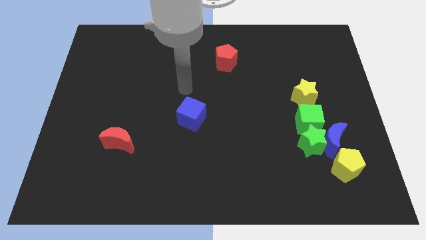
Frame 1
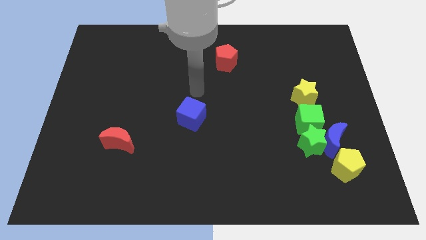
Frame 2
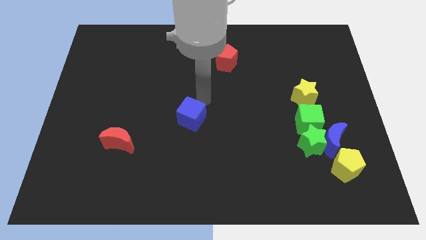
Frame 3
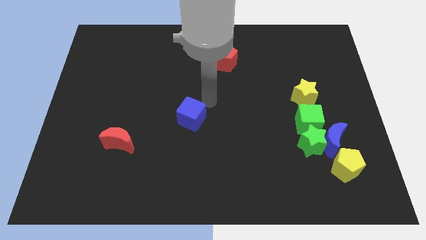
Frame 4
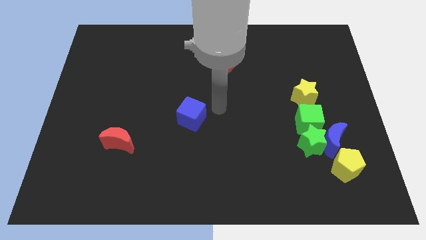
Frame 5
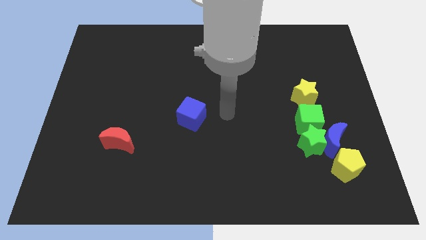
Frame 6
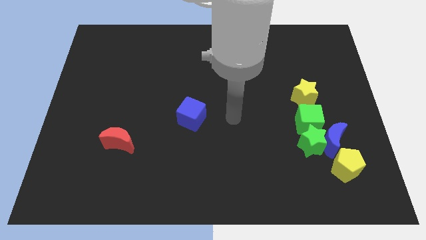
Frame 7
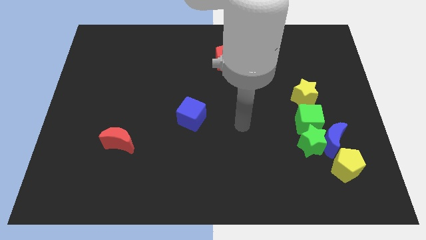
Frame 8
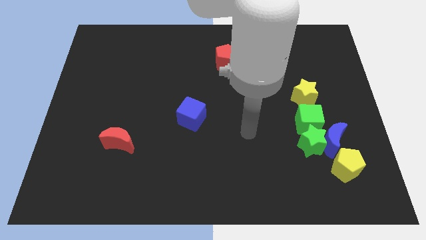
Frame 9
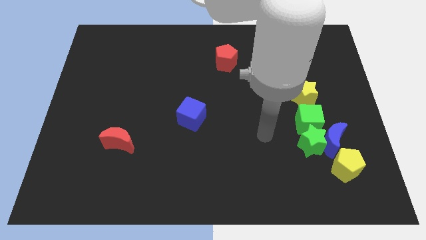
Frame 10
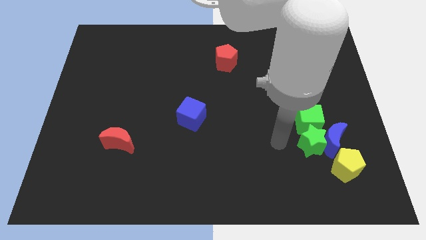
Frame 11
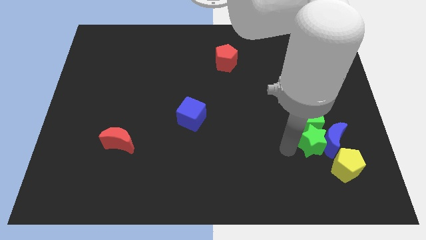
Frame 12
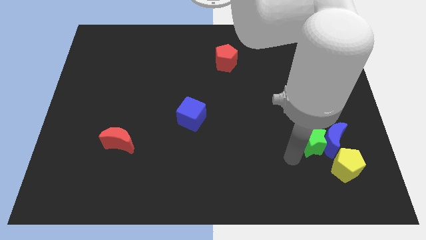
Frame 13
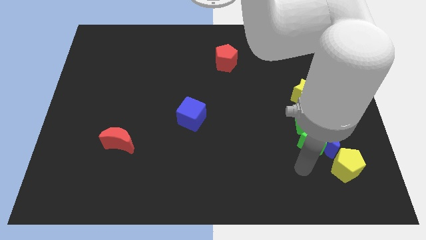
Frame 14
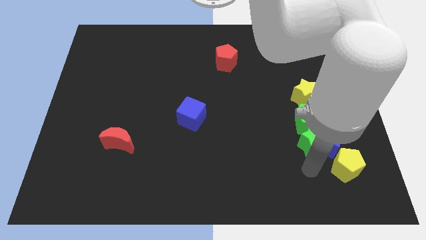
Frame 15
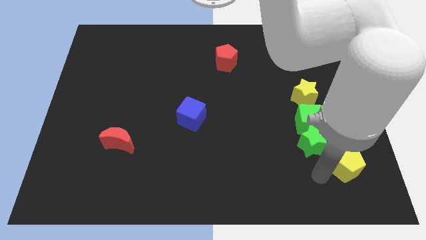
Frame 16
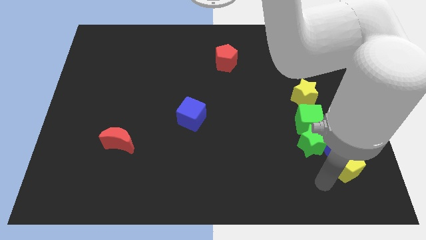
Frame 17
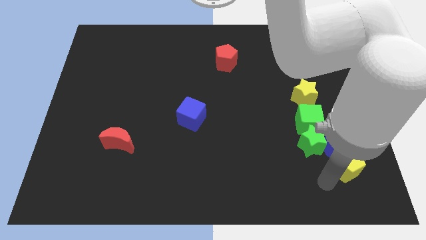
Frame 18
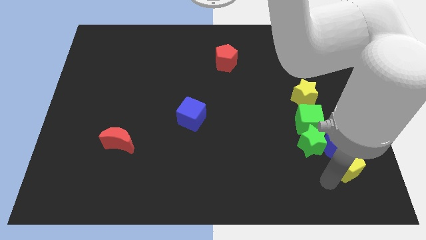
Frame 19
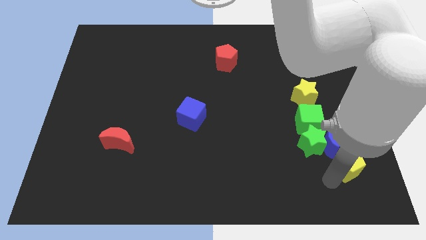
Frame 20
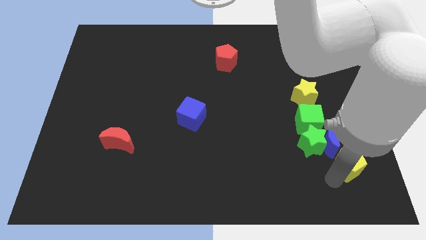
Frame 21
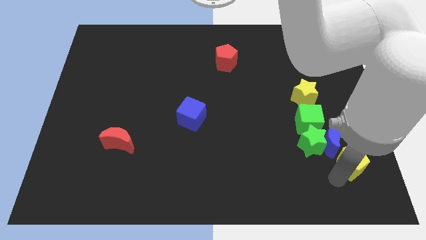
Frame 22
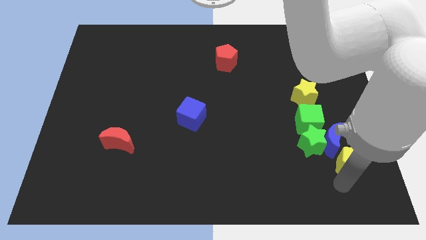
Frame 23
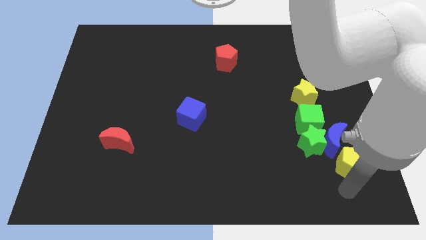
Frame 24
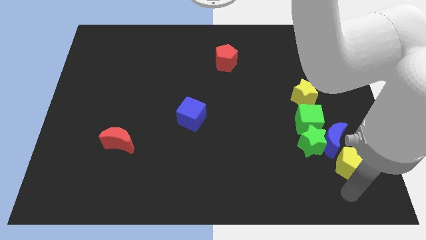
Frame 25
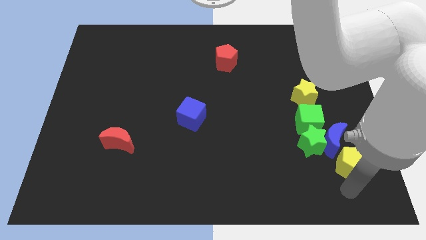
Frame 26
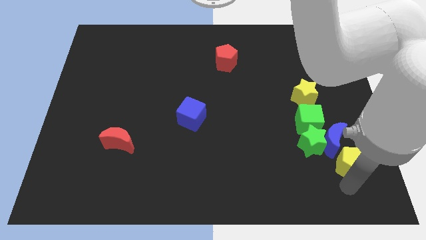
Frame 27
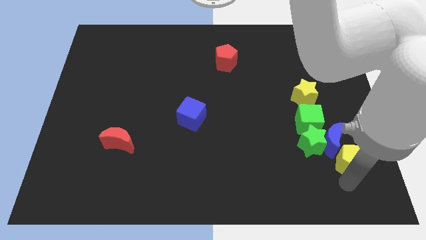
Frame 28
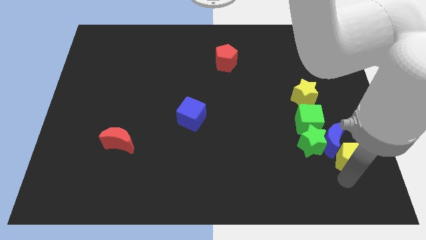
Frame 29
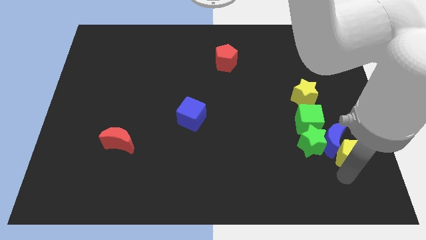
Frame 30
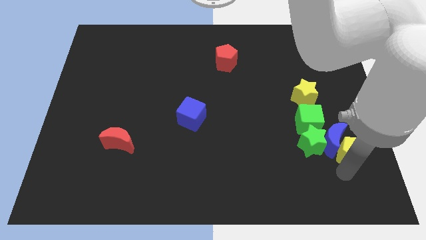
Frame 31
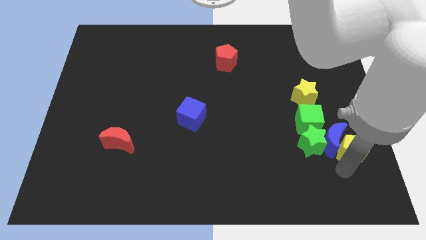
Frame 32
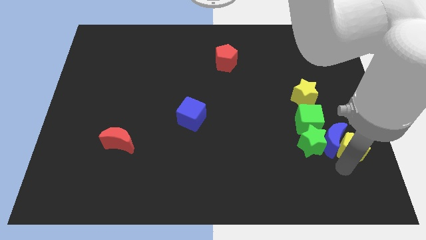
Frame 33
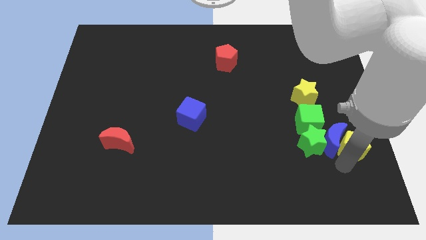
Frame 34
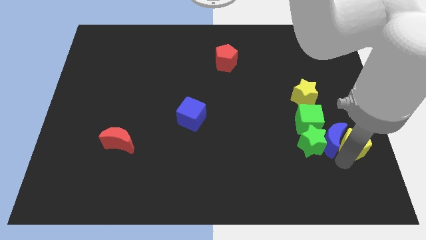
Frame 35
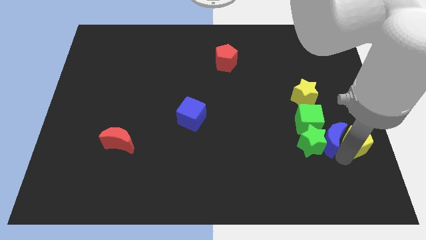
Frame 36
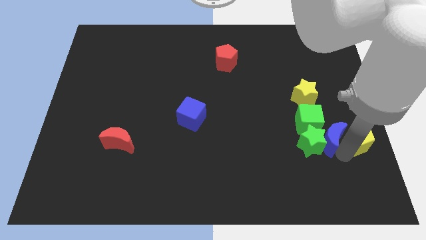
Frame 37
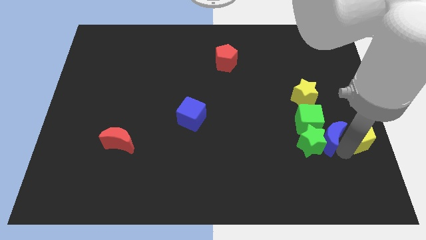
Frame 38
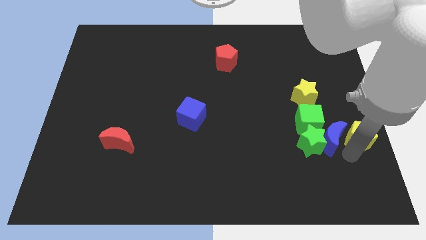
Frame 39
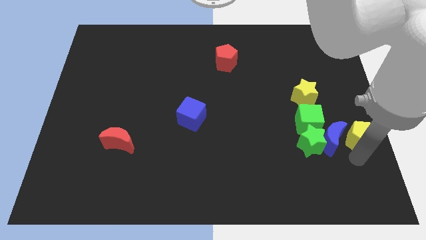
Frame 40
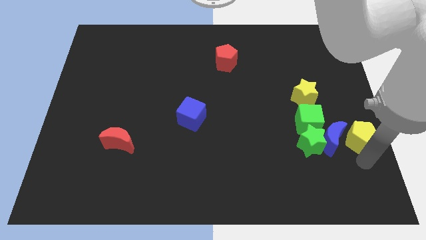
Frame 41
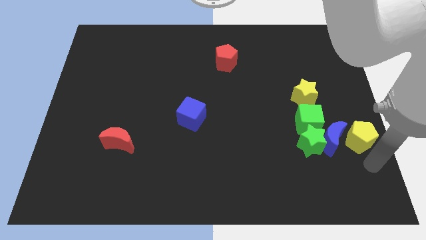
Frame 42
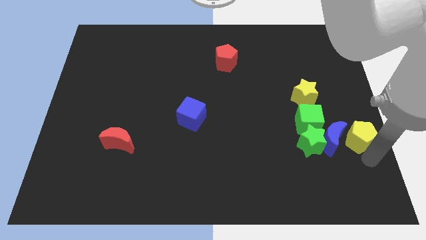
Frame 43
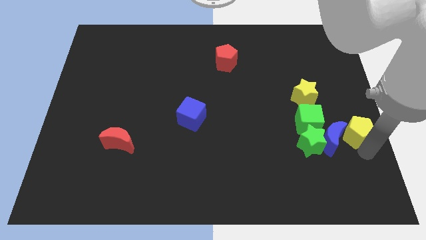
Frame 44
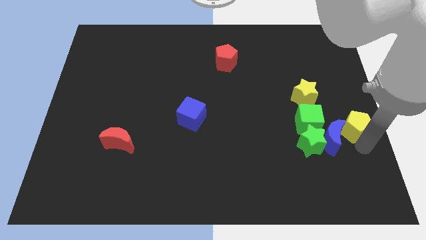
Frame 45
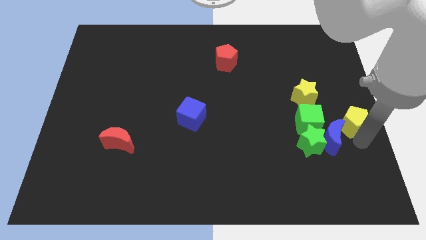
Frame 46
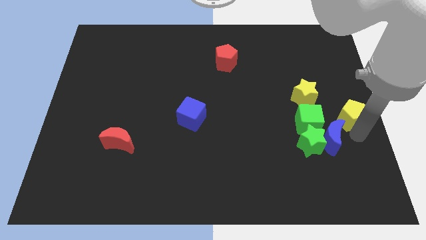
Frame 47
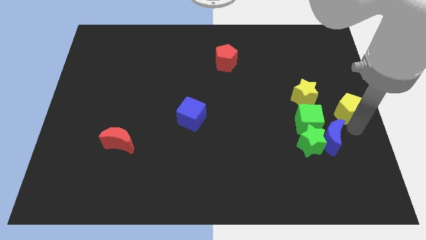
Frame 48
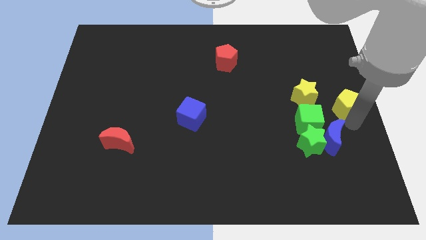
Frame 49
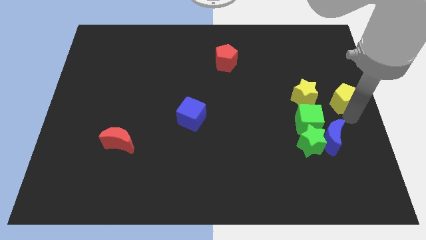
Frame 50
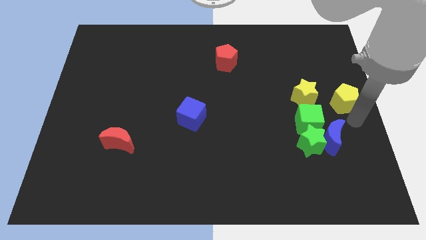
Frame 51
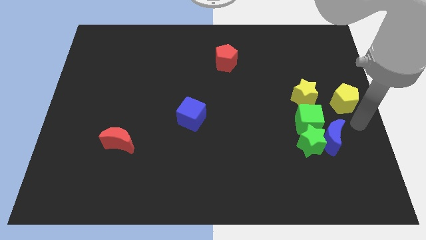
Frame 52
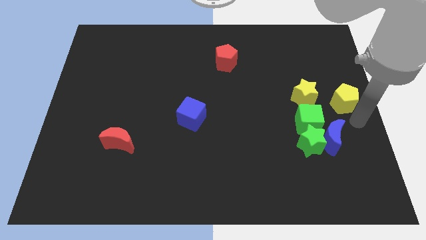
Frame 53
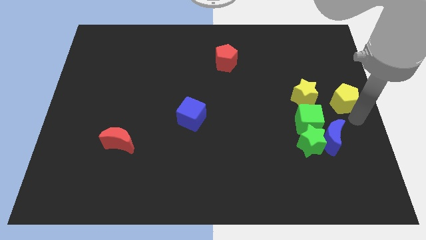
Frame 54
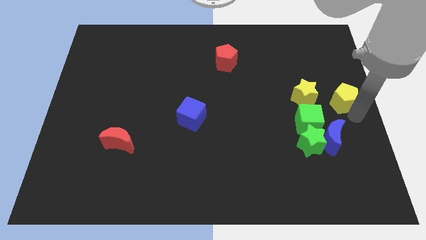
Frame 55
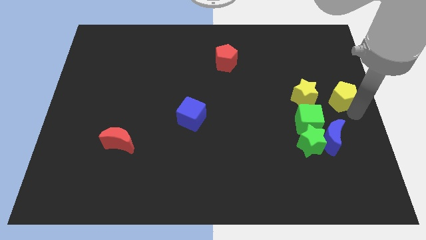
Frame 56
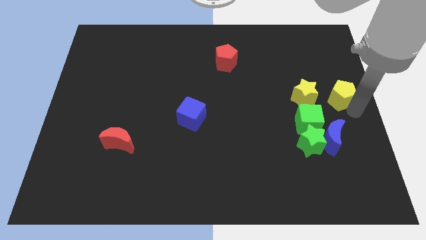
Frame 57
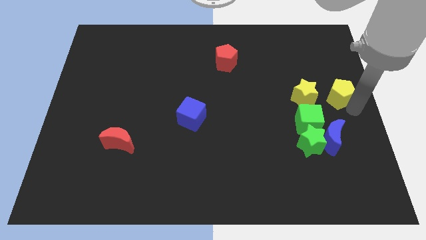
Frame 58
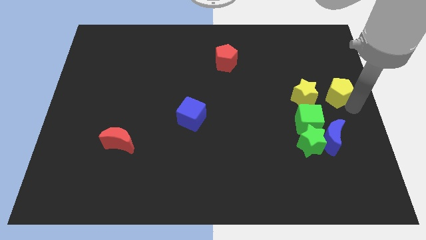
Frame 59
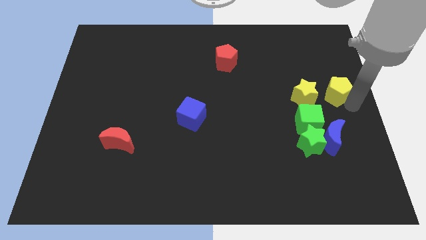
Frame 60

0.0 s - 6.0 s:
slide the yellow pentagon upwards

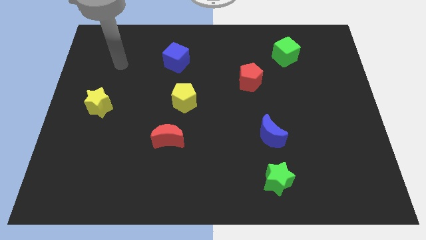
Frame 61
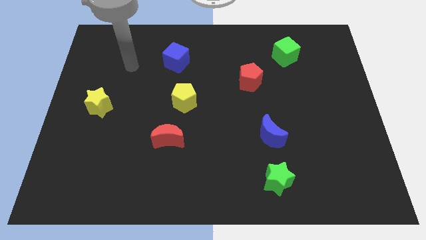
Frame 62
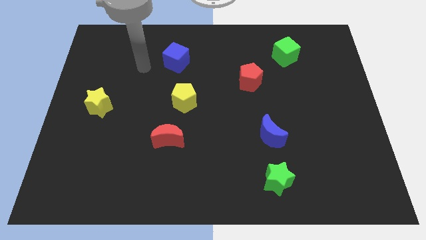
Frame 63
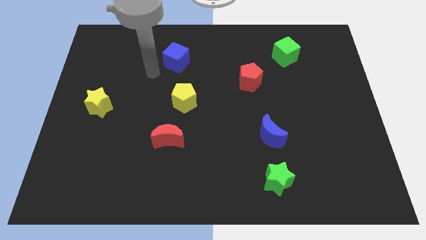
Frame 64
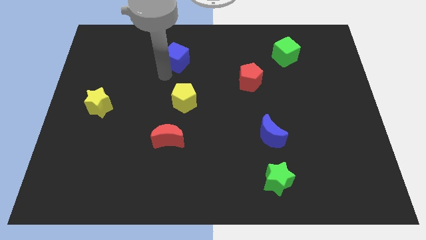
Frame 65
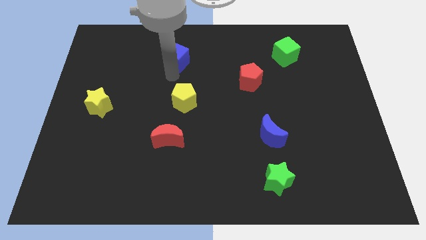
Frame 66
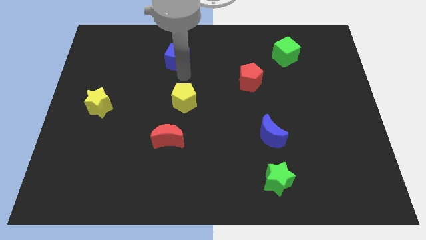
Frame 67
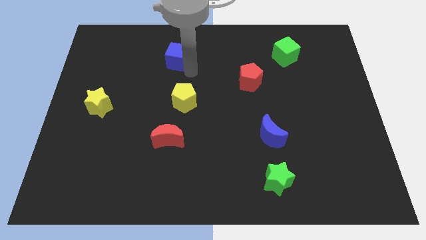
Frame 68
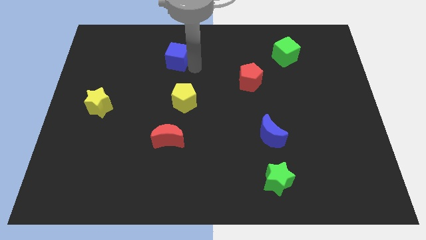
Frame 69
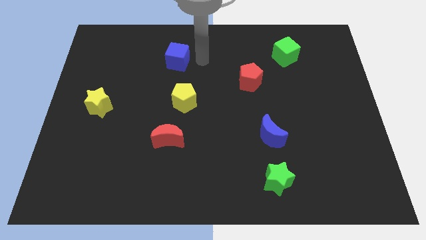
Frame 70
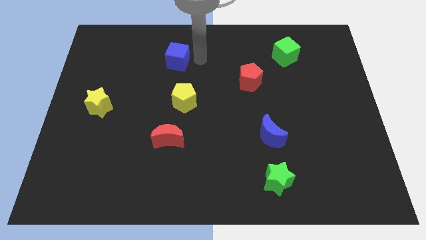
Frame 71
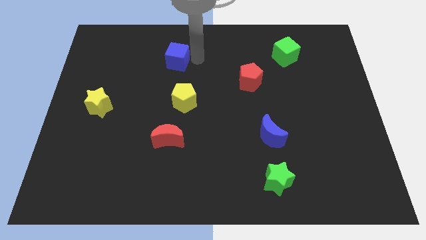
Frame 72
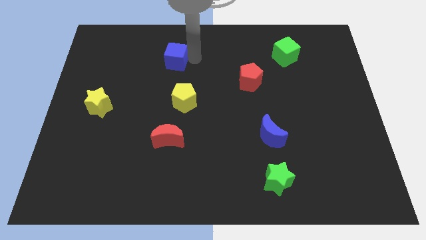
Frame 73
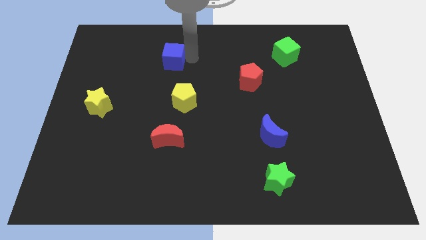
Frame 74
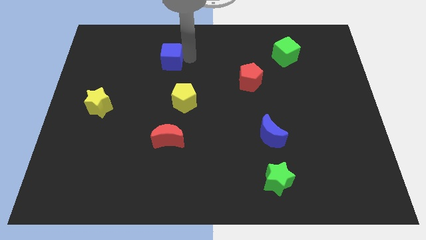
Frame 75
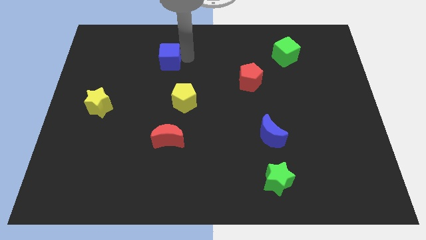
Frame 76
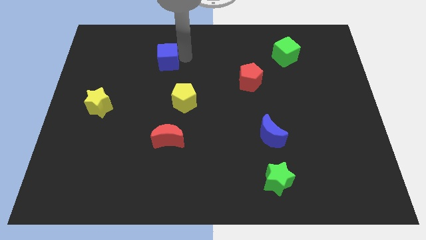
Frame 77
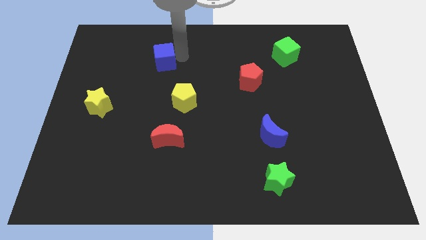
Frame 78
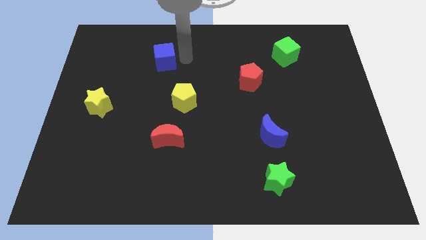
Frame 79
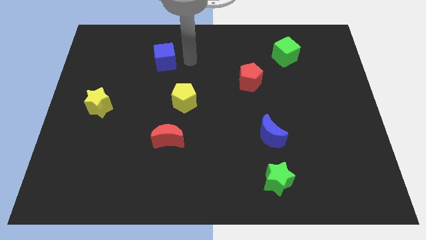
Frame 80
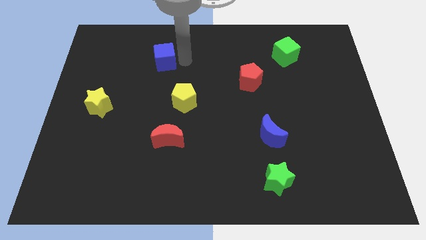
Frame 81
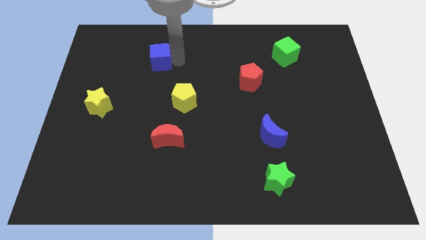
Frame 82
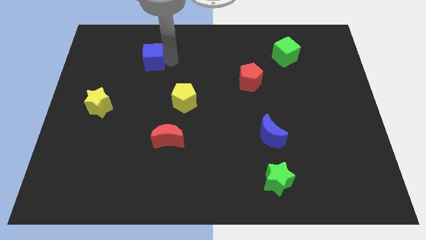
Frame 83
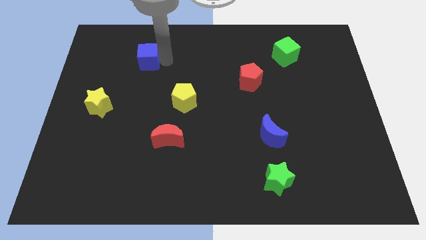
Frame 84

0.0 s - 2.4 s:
slightly move the blue cube to the left
